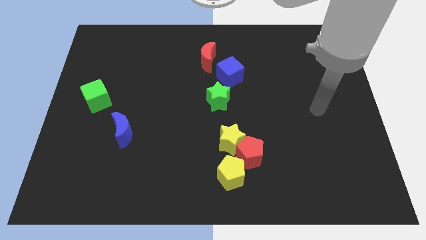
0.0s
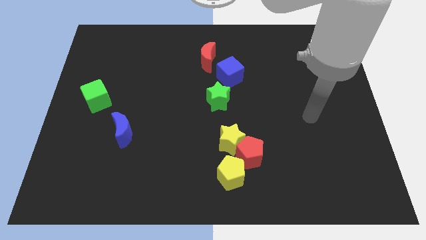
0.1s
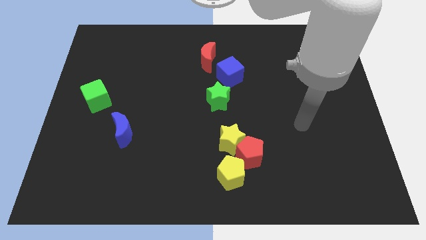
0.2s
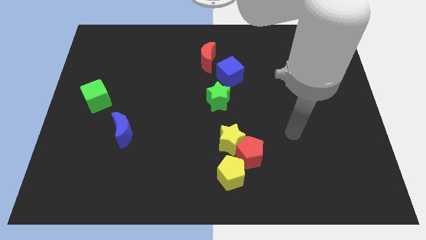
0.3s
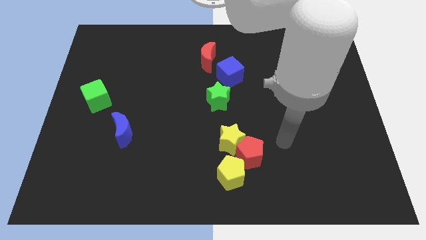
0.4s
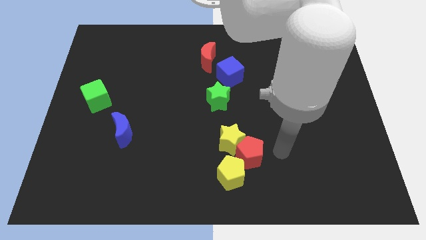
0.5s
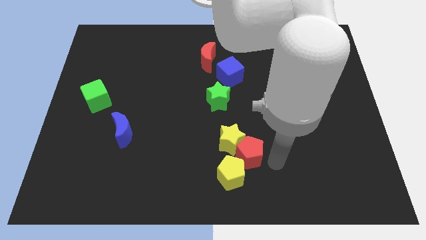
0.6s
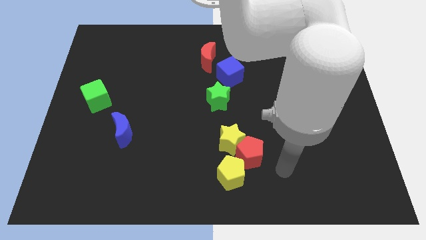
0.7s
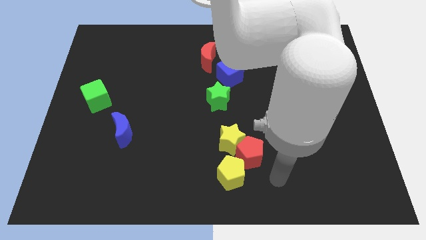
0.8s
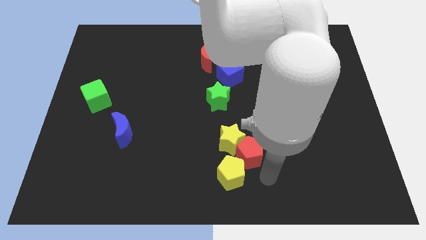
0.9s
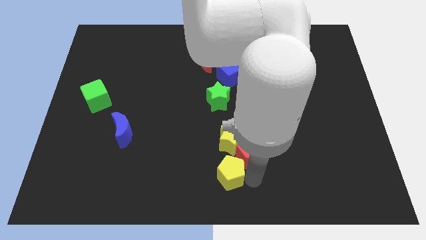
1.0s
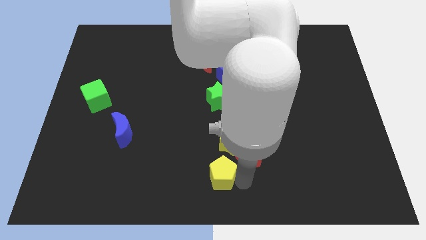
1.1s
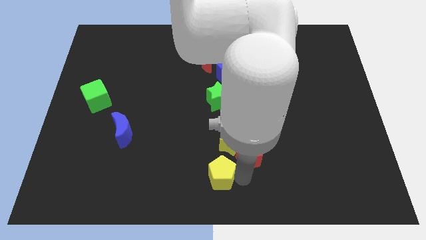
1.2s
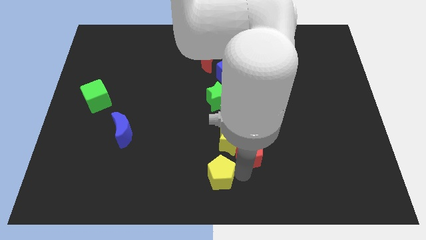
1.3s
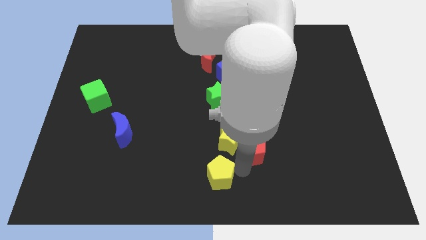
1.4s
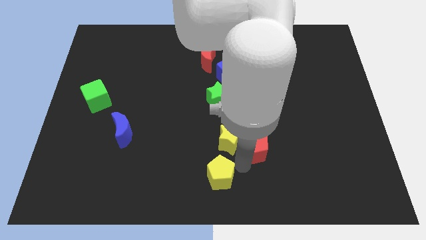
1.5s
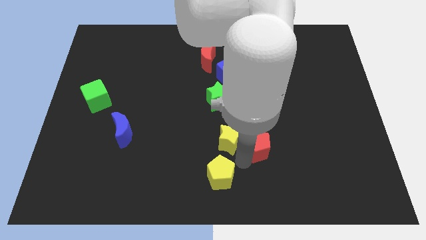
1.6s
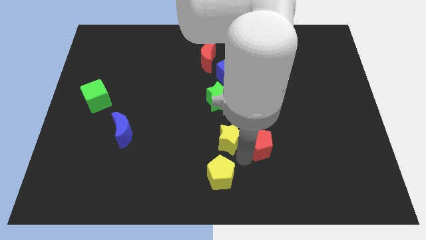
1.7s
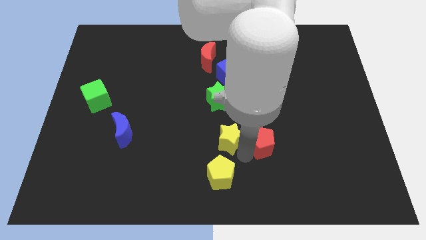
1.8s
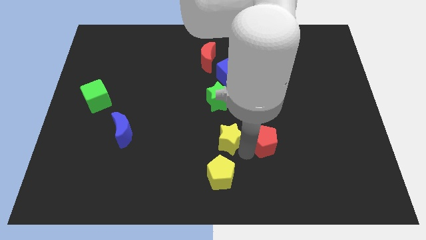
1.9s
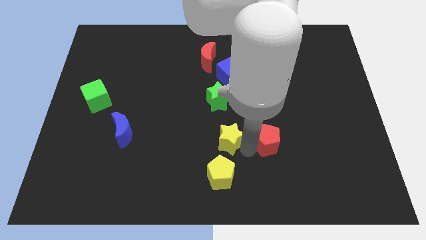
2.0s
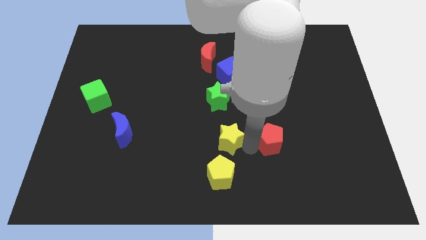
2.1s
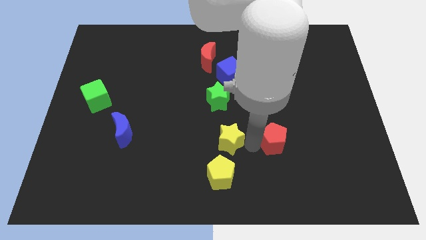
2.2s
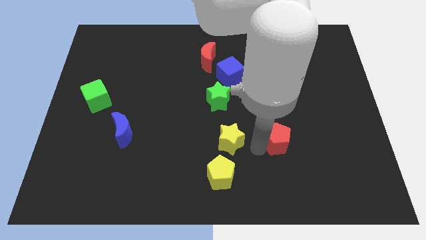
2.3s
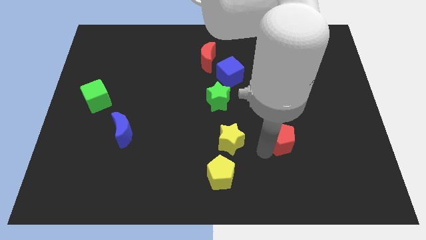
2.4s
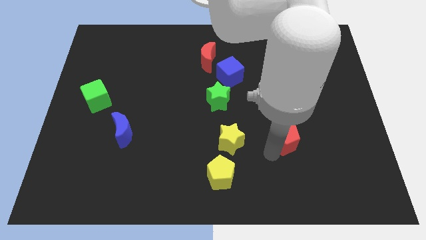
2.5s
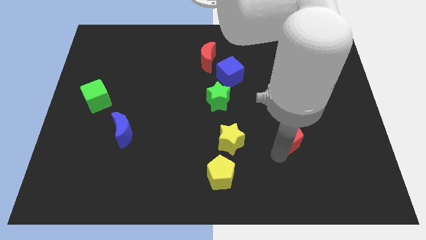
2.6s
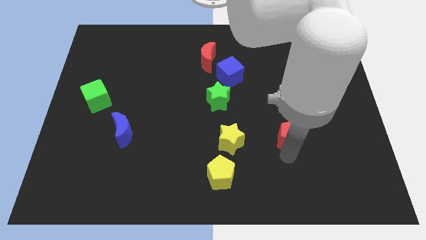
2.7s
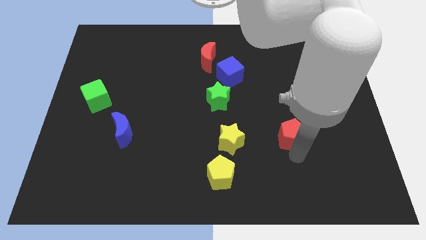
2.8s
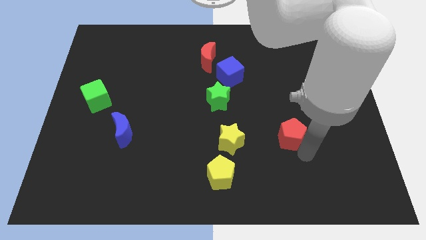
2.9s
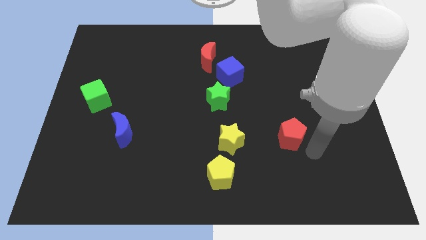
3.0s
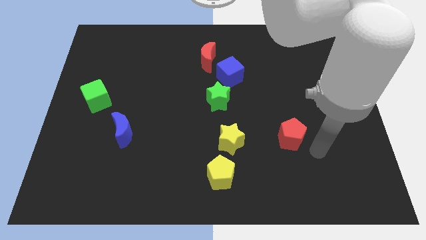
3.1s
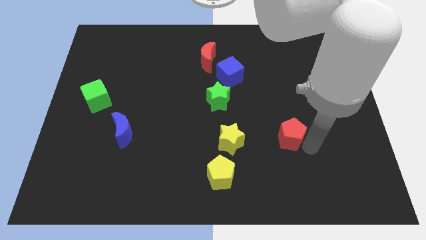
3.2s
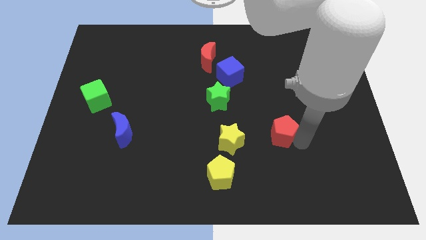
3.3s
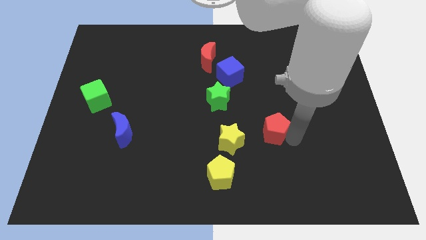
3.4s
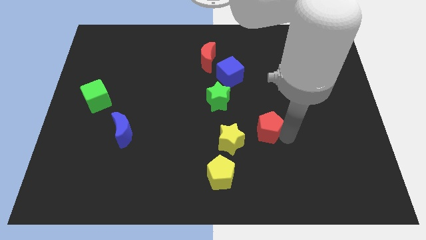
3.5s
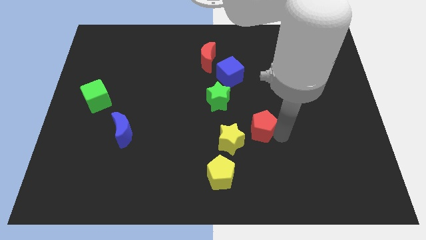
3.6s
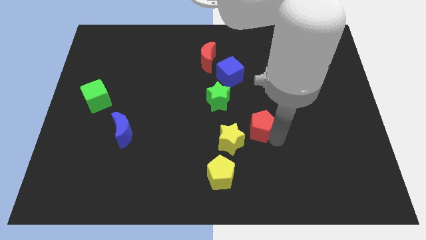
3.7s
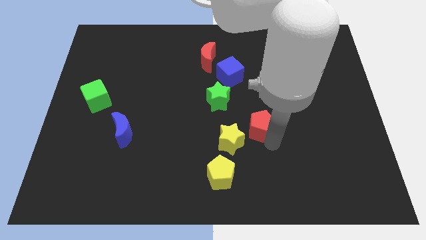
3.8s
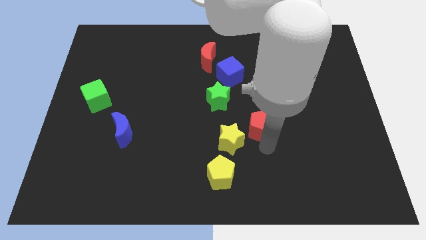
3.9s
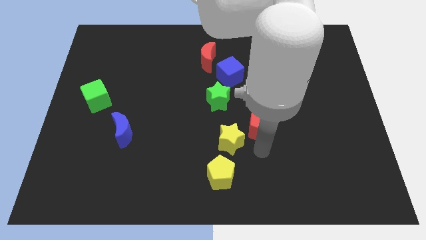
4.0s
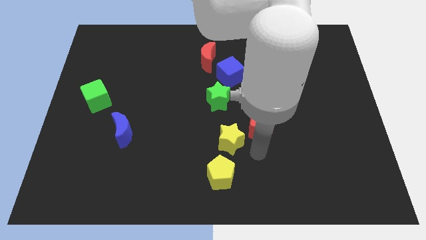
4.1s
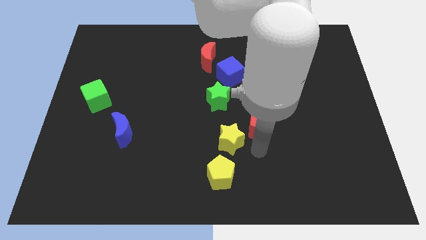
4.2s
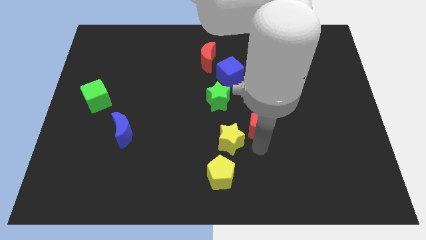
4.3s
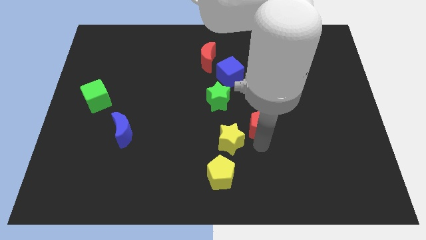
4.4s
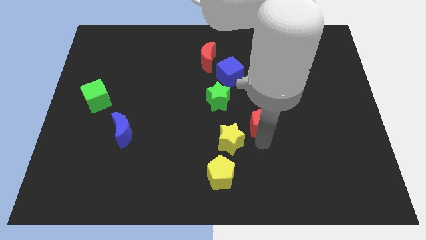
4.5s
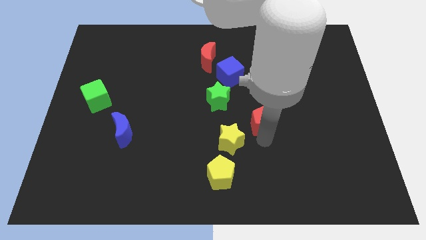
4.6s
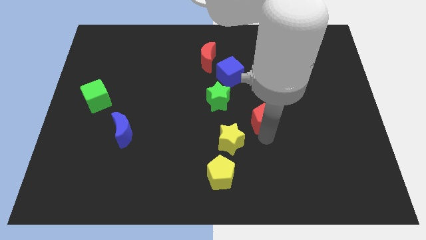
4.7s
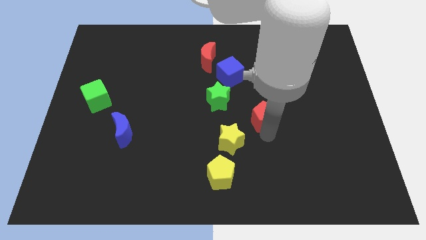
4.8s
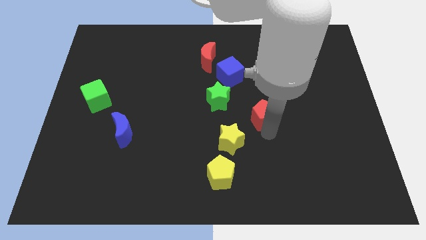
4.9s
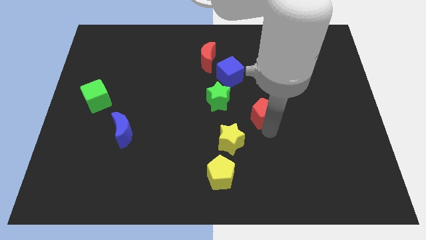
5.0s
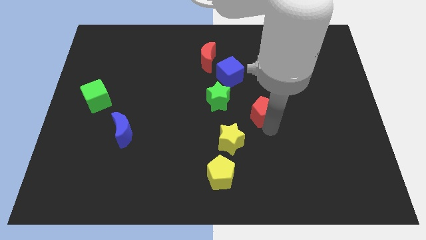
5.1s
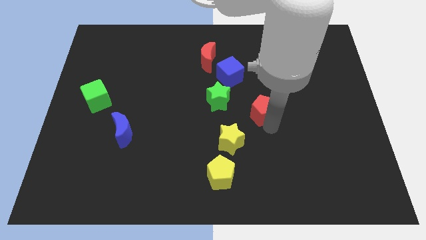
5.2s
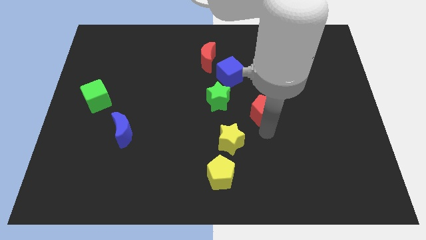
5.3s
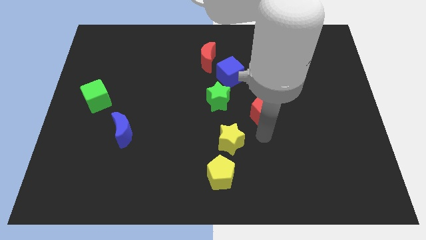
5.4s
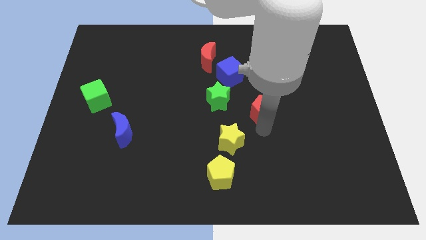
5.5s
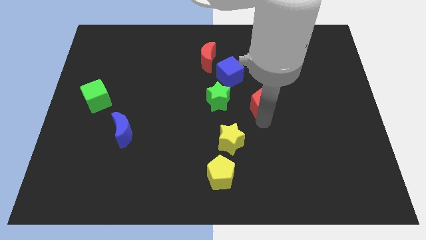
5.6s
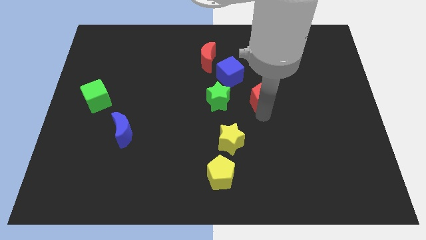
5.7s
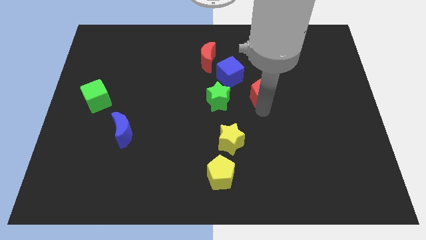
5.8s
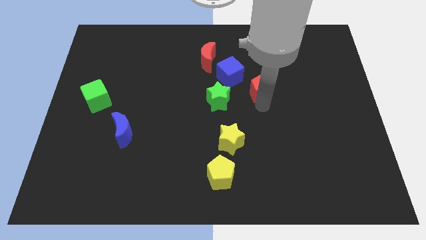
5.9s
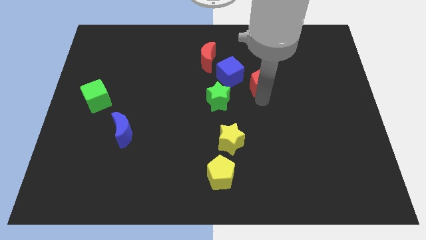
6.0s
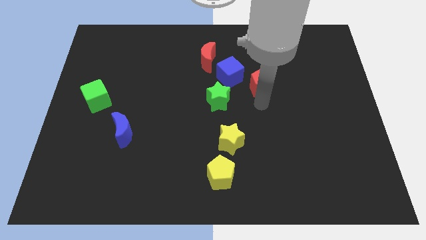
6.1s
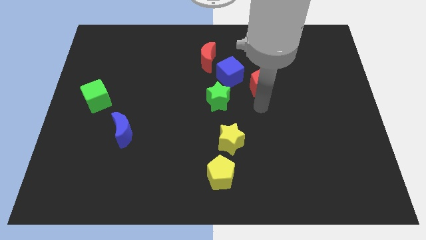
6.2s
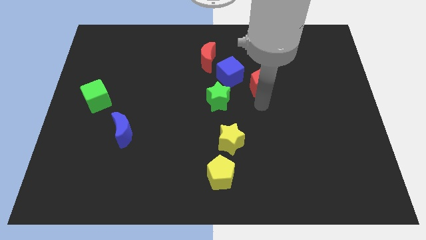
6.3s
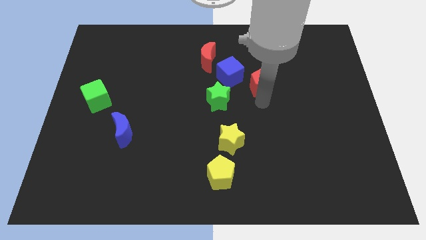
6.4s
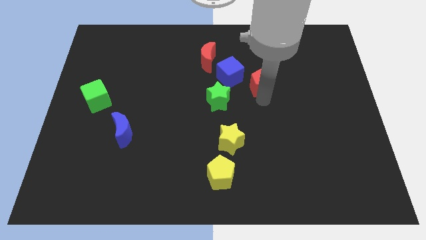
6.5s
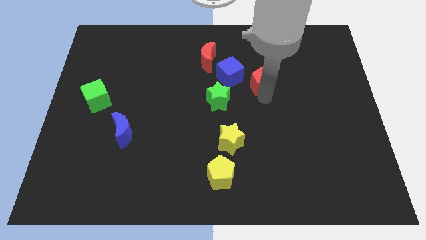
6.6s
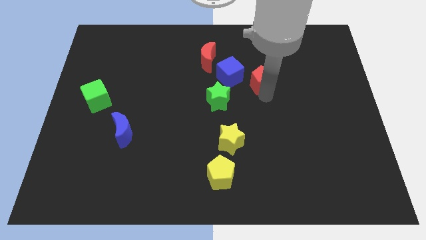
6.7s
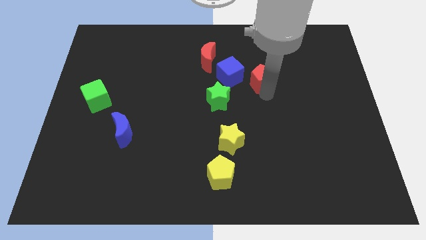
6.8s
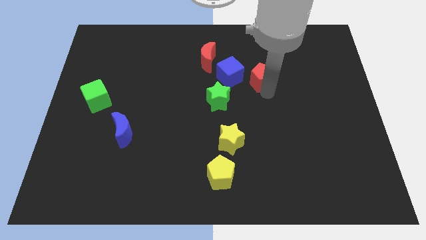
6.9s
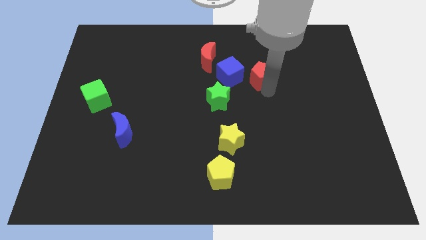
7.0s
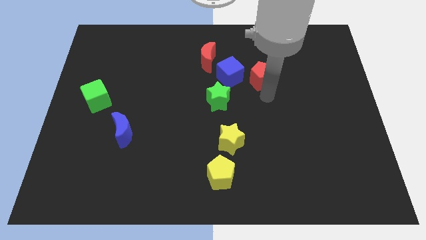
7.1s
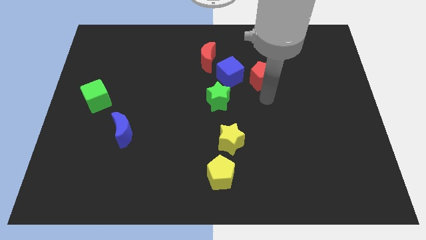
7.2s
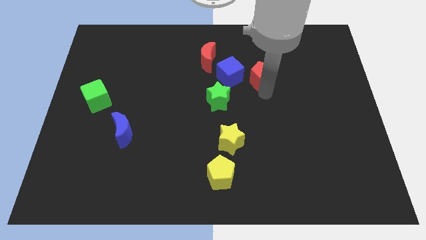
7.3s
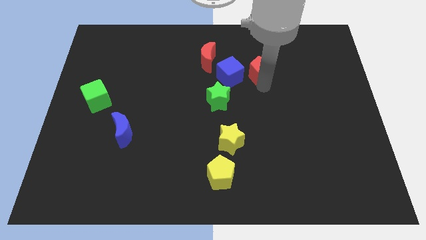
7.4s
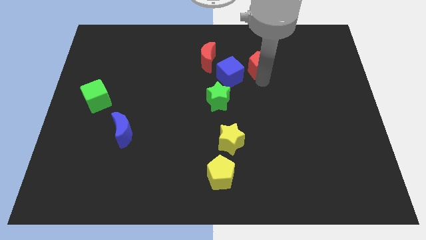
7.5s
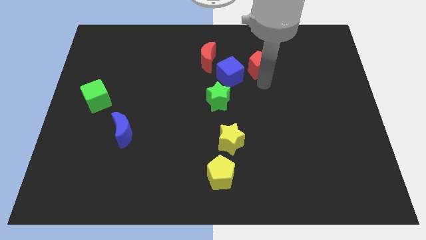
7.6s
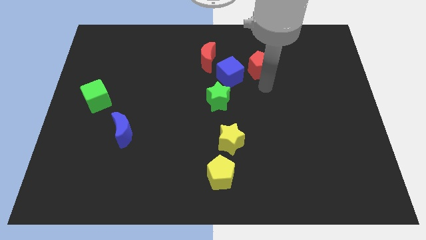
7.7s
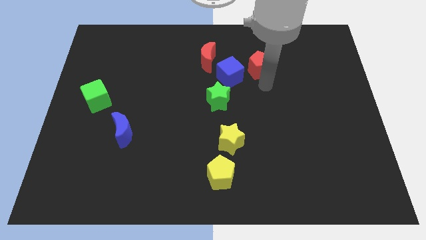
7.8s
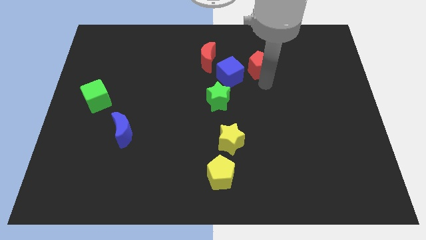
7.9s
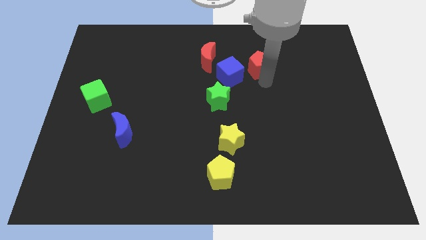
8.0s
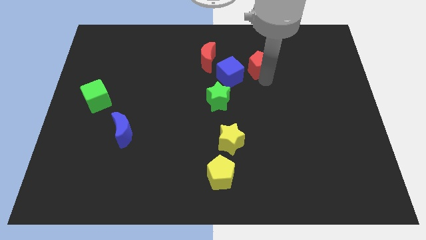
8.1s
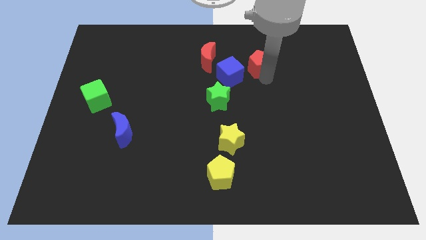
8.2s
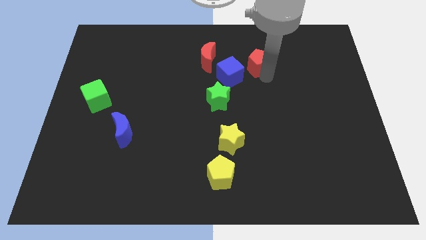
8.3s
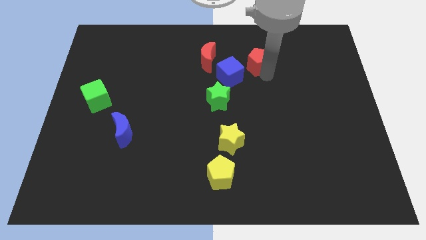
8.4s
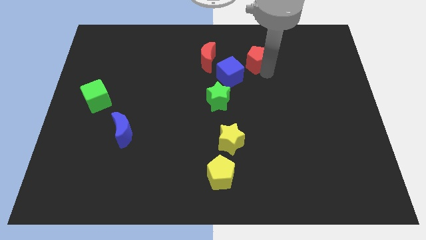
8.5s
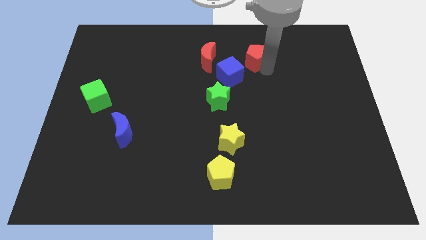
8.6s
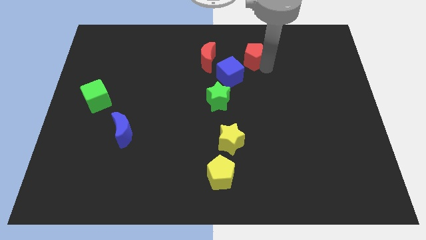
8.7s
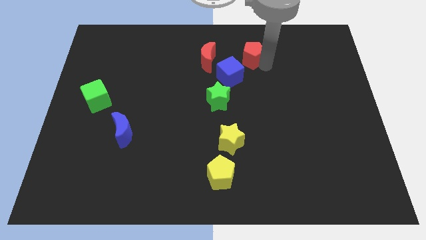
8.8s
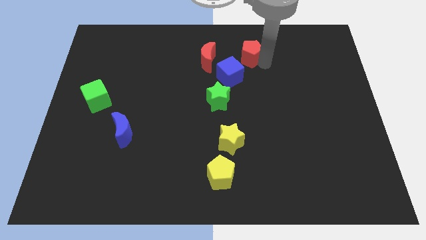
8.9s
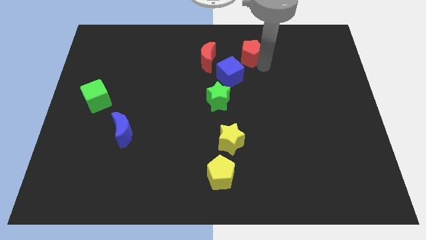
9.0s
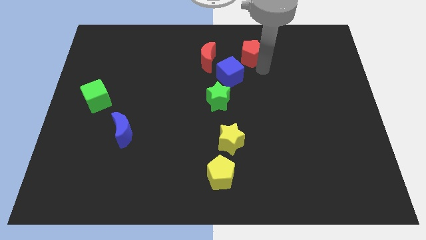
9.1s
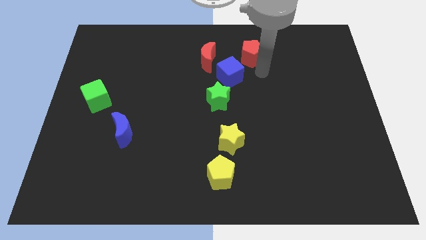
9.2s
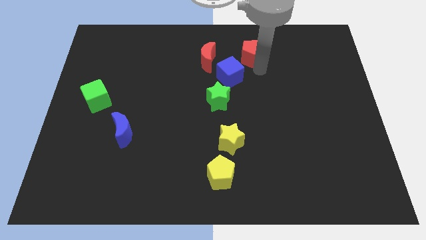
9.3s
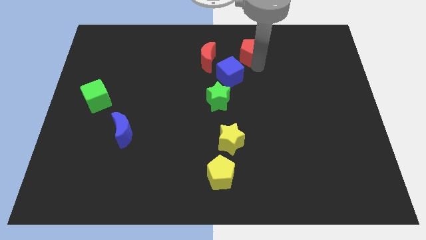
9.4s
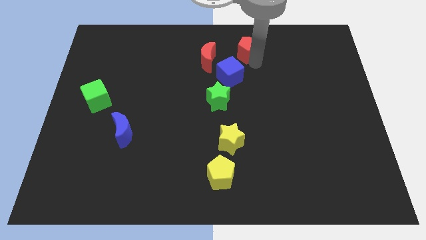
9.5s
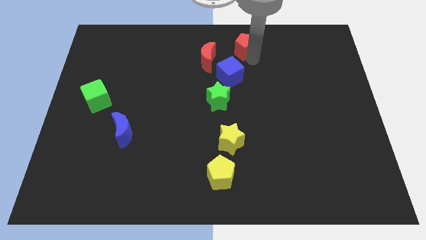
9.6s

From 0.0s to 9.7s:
push the red pentagon to the towards your base
